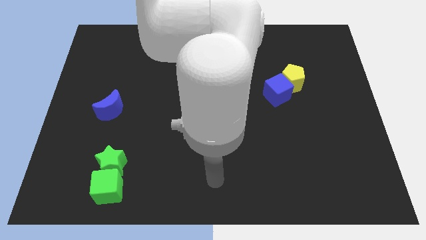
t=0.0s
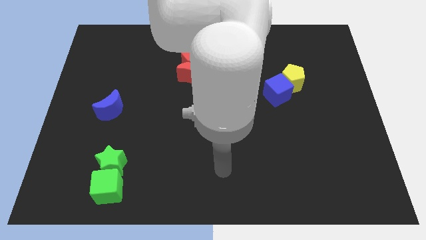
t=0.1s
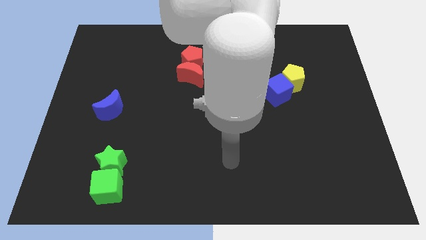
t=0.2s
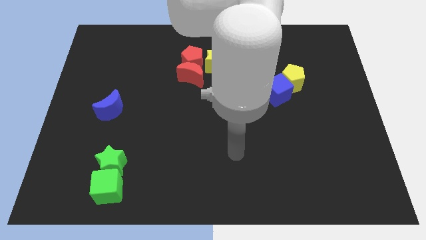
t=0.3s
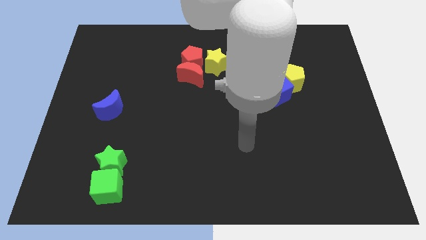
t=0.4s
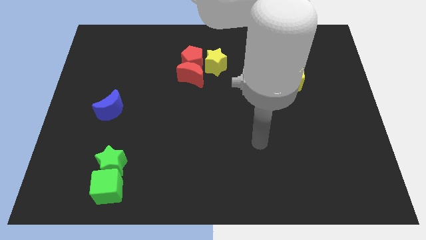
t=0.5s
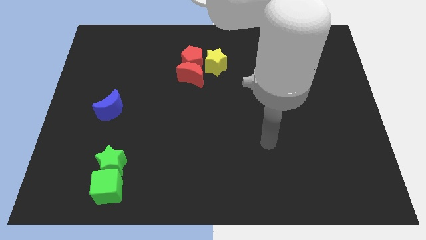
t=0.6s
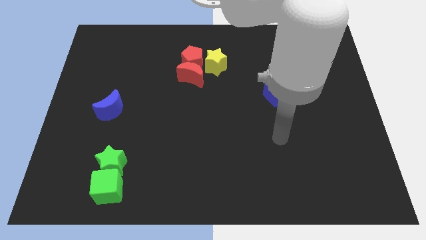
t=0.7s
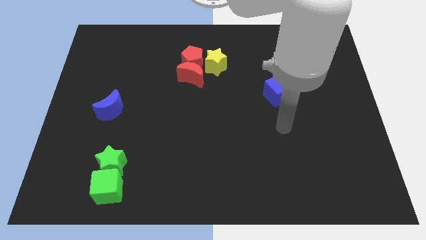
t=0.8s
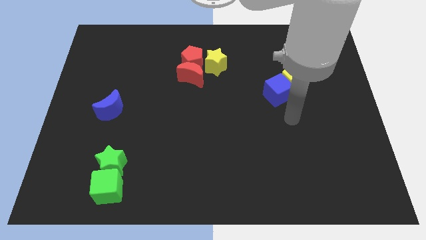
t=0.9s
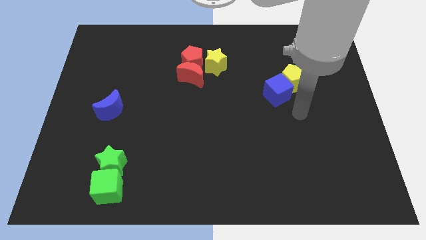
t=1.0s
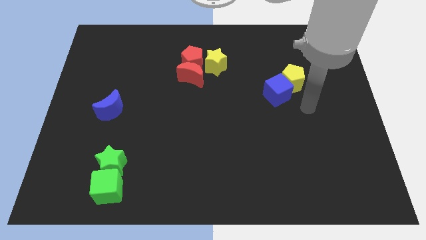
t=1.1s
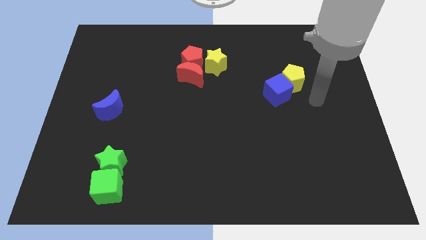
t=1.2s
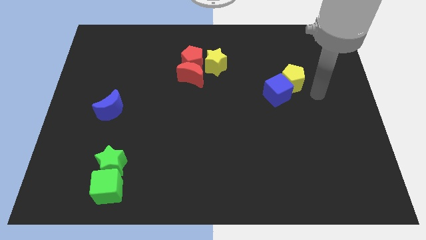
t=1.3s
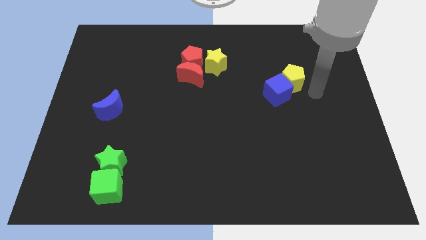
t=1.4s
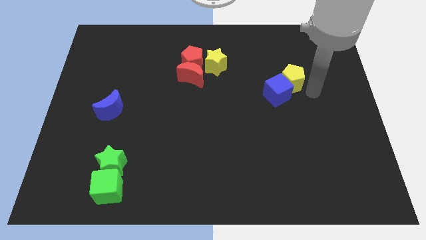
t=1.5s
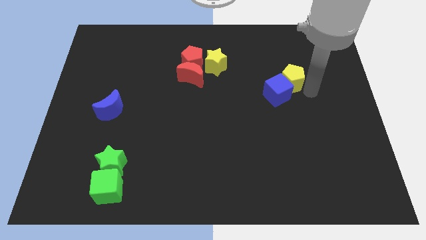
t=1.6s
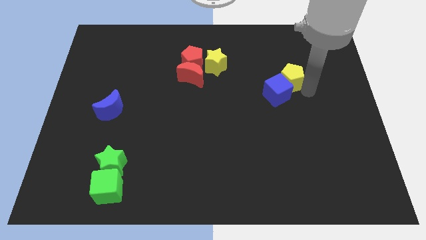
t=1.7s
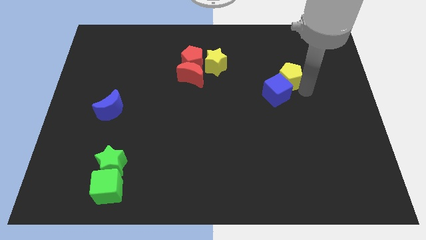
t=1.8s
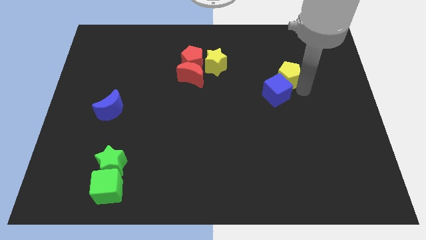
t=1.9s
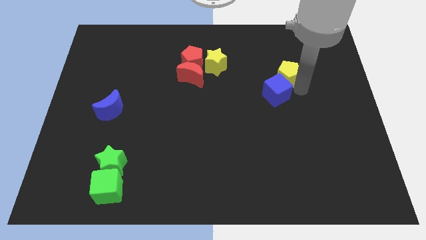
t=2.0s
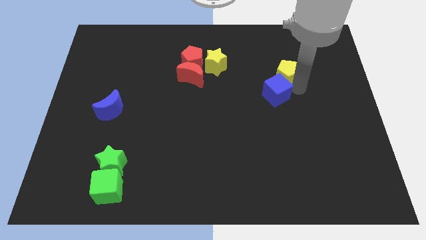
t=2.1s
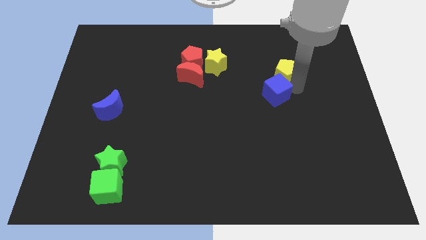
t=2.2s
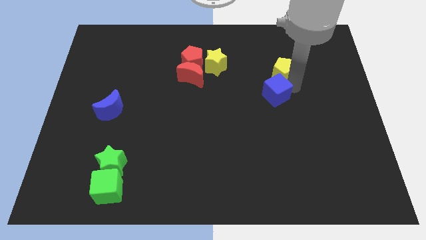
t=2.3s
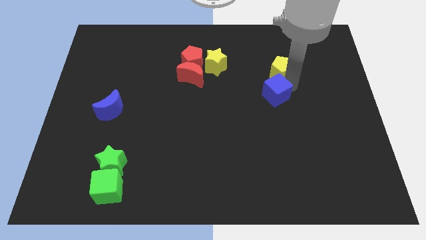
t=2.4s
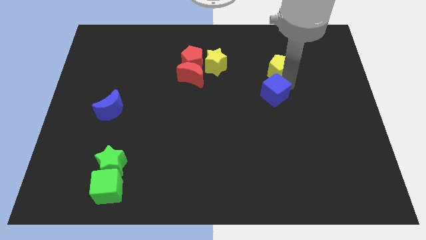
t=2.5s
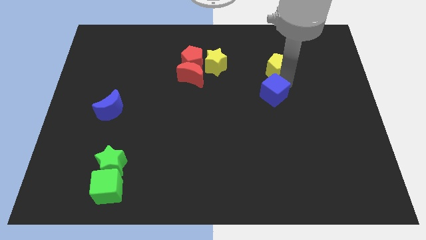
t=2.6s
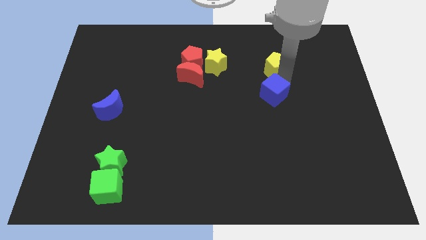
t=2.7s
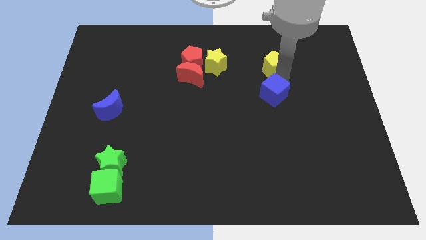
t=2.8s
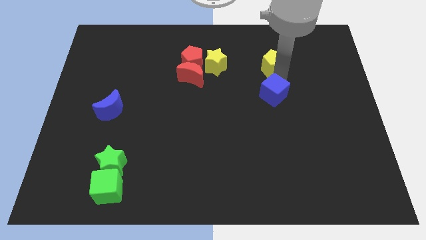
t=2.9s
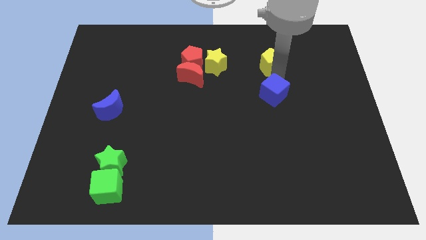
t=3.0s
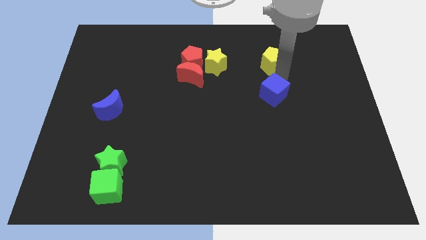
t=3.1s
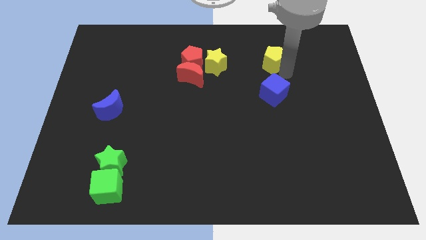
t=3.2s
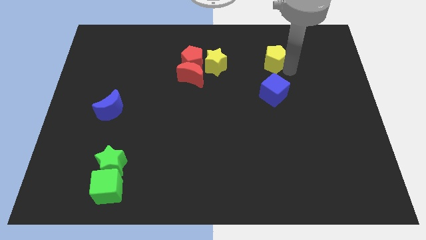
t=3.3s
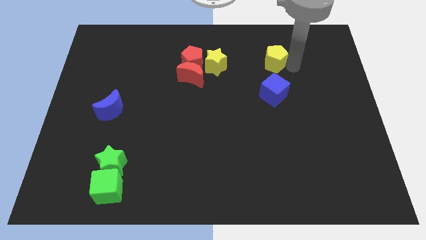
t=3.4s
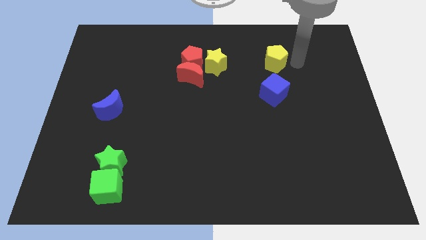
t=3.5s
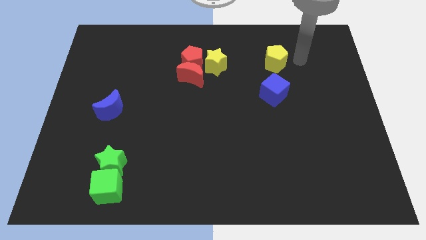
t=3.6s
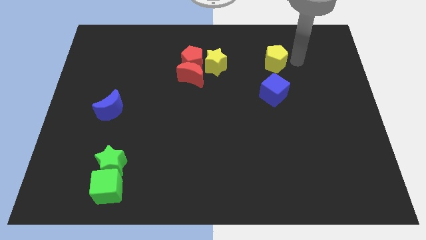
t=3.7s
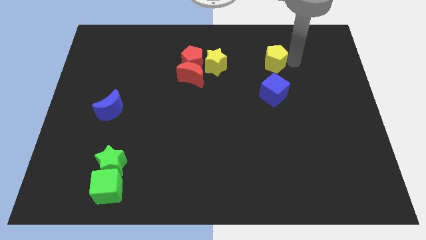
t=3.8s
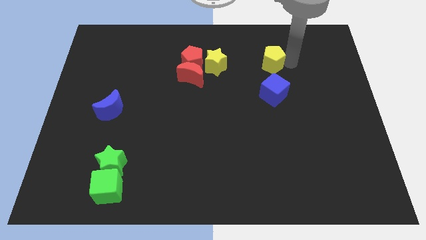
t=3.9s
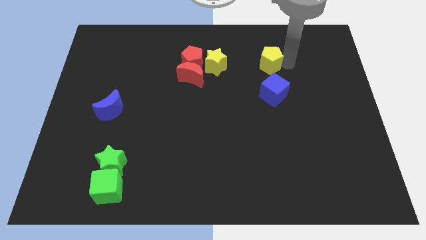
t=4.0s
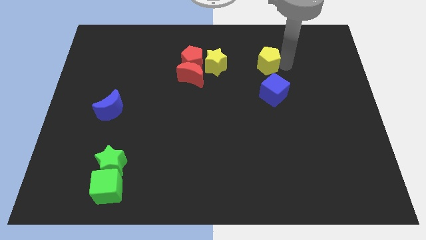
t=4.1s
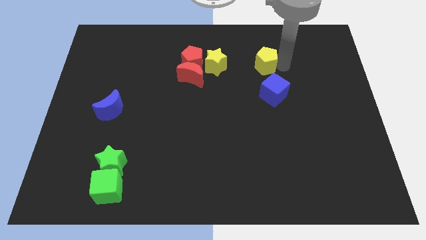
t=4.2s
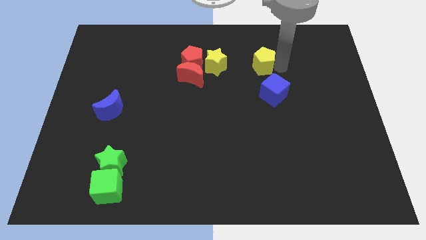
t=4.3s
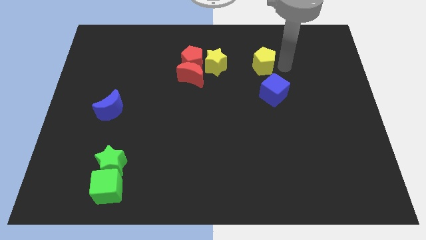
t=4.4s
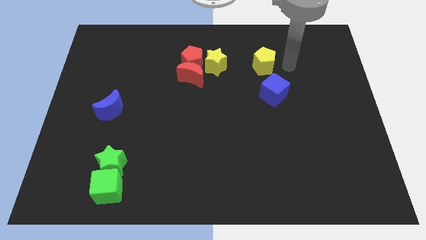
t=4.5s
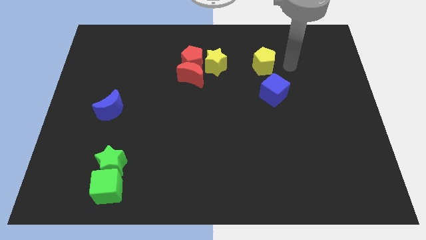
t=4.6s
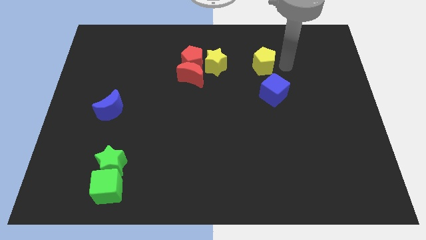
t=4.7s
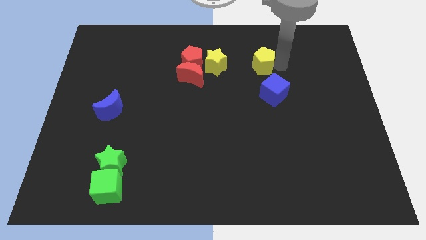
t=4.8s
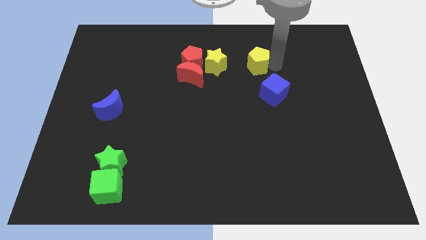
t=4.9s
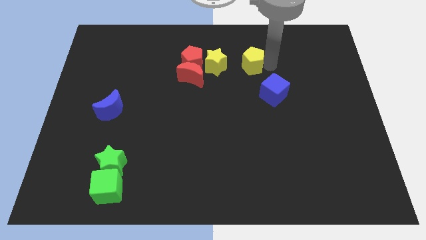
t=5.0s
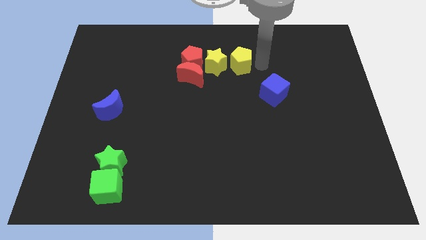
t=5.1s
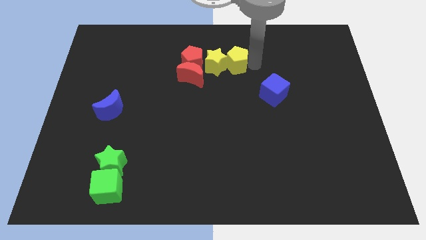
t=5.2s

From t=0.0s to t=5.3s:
put the yellow pentagon next to the yellow star

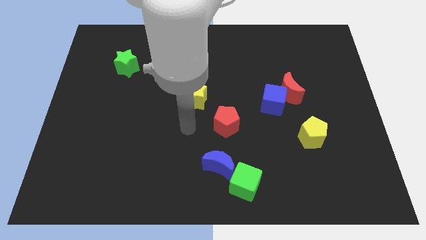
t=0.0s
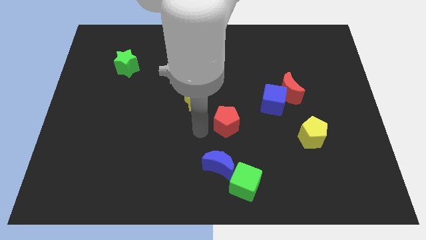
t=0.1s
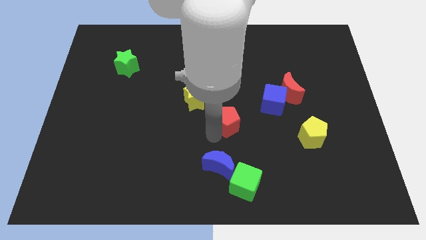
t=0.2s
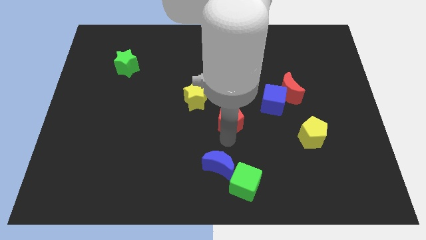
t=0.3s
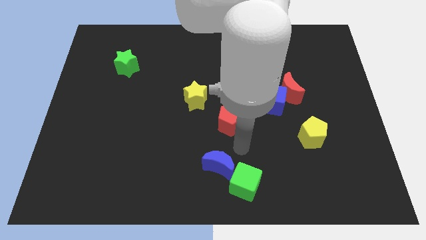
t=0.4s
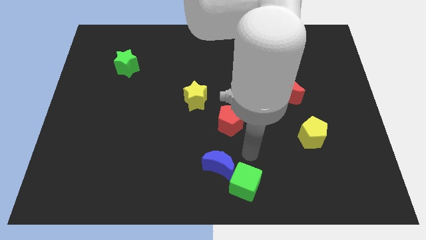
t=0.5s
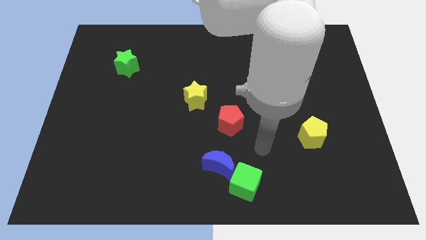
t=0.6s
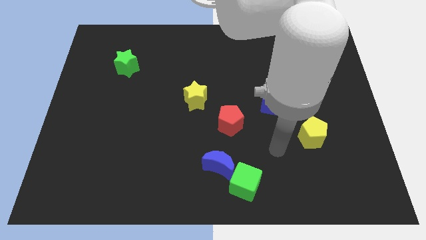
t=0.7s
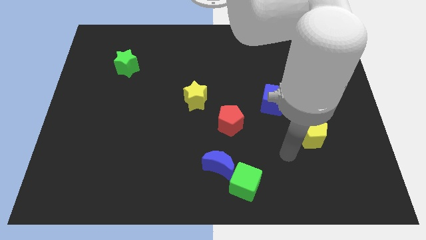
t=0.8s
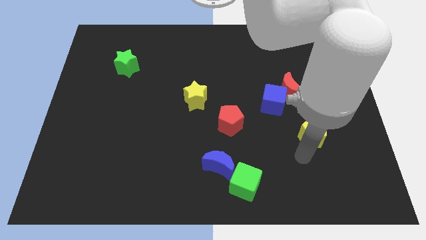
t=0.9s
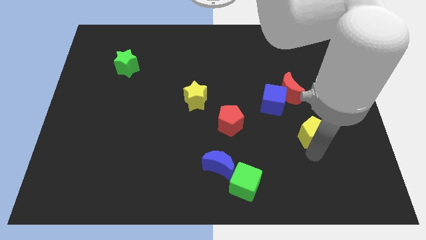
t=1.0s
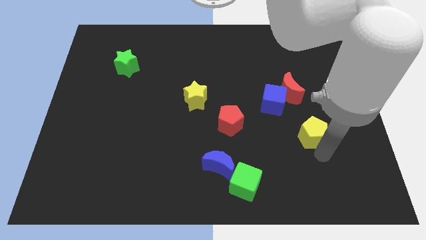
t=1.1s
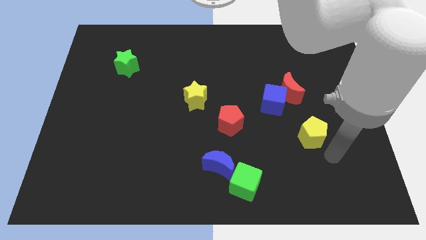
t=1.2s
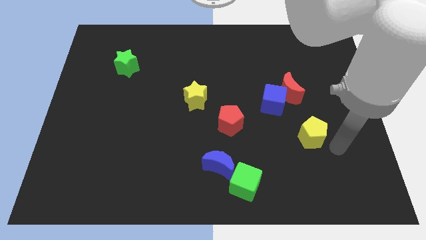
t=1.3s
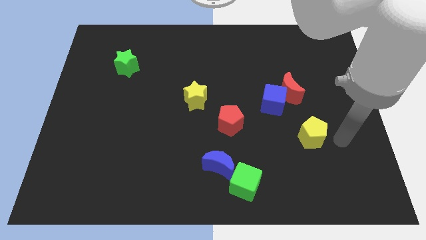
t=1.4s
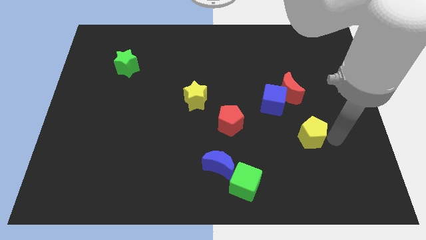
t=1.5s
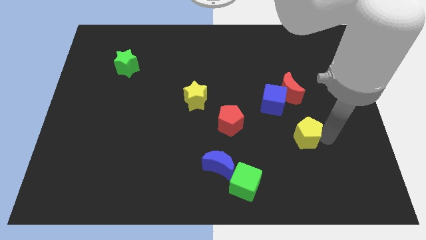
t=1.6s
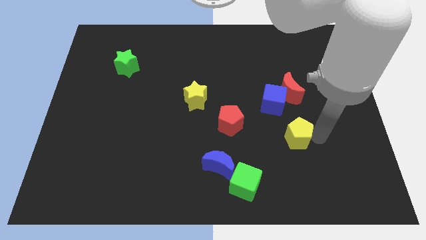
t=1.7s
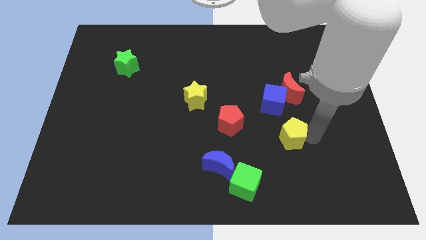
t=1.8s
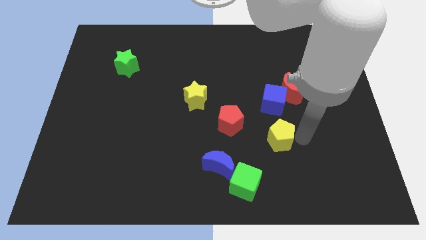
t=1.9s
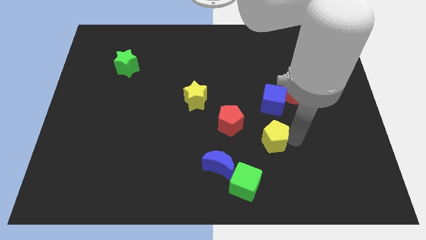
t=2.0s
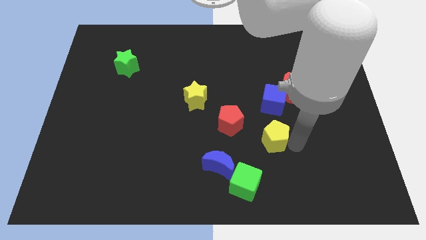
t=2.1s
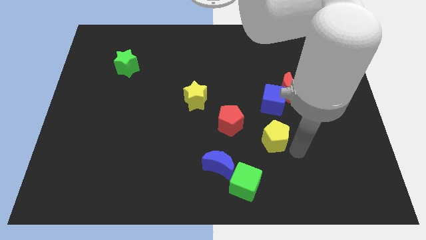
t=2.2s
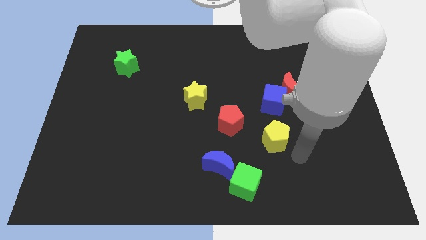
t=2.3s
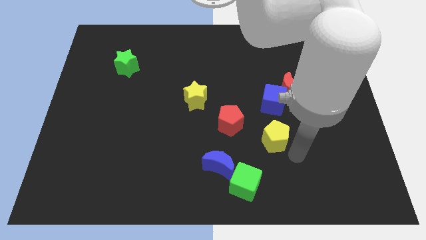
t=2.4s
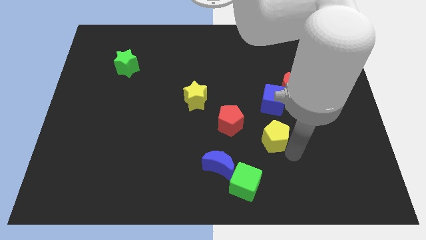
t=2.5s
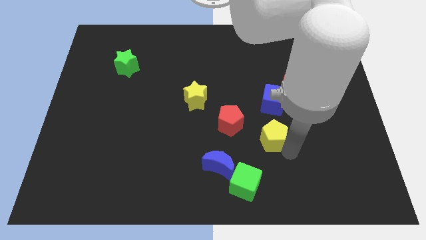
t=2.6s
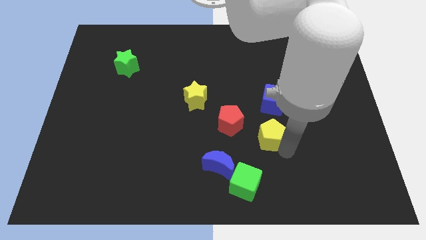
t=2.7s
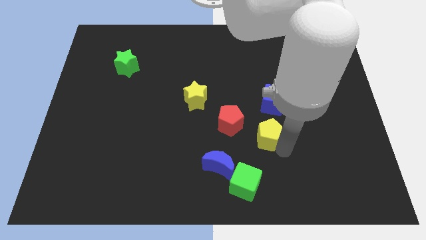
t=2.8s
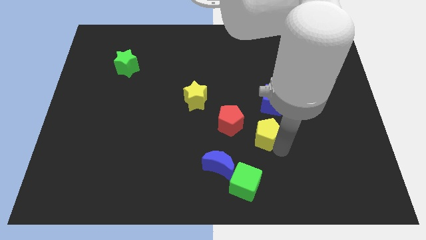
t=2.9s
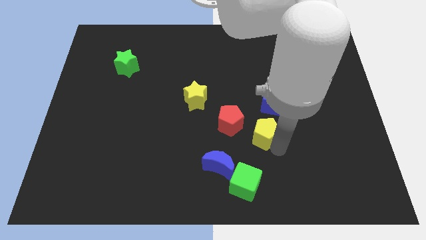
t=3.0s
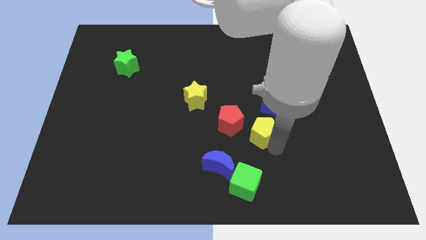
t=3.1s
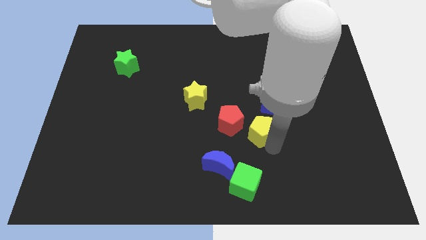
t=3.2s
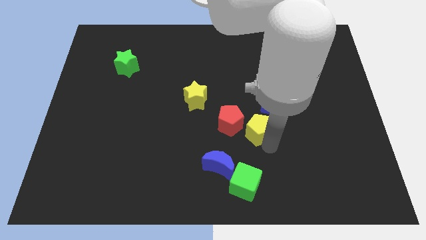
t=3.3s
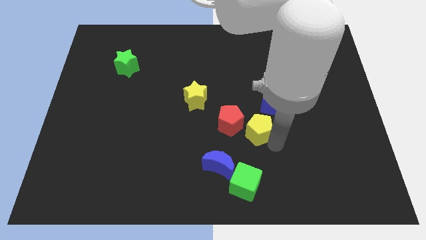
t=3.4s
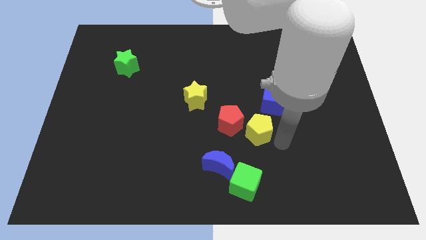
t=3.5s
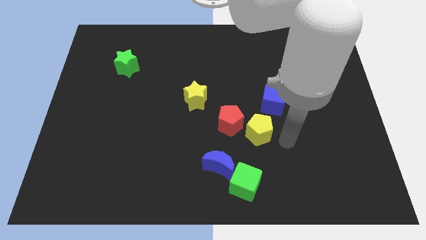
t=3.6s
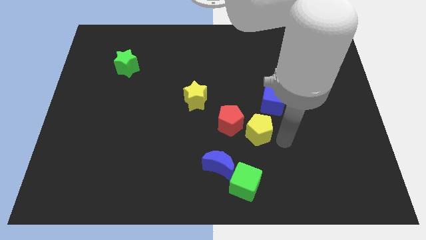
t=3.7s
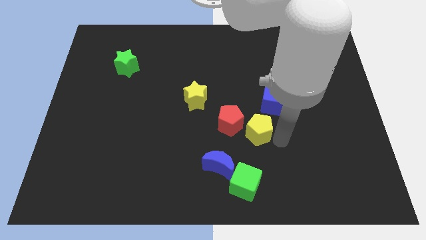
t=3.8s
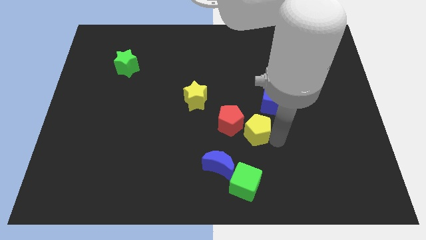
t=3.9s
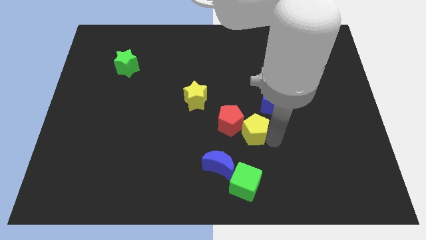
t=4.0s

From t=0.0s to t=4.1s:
slide the yellow pentagon close to the red pentagon
